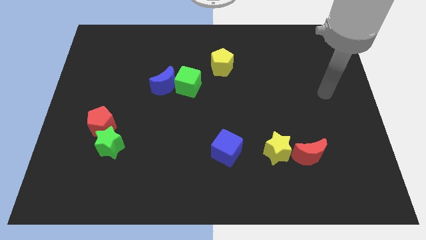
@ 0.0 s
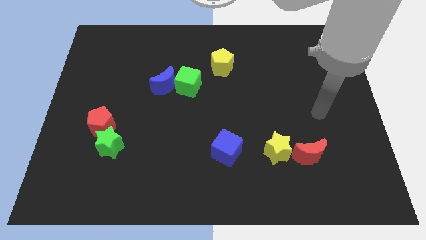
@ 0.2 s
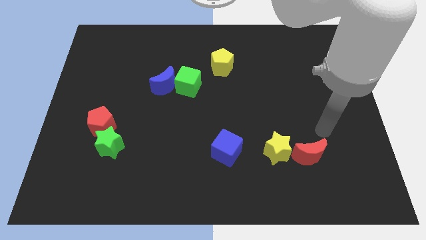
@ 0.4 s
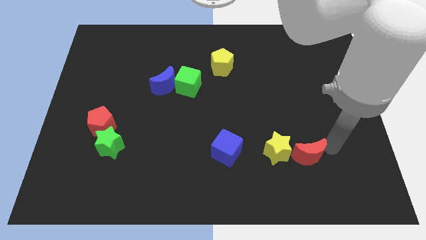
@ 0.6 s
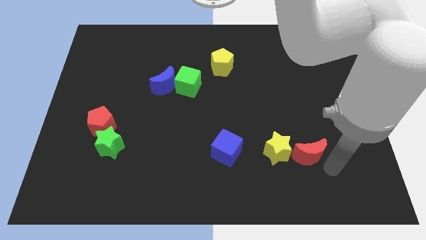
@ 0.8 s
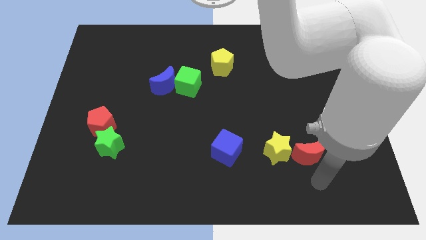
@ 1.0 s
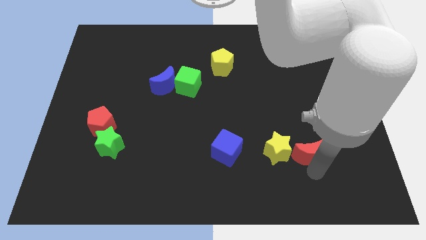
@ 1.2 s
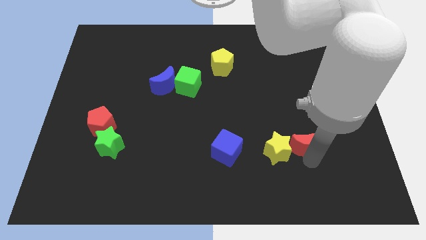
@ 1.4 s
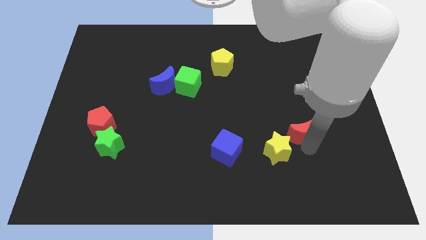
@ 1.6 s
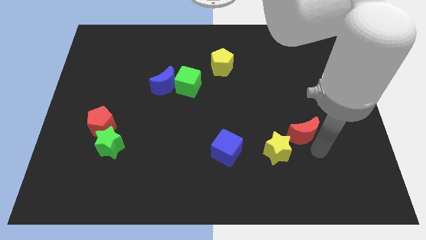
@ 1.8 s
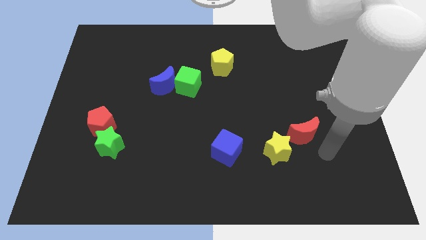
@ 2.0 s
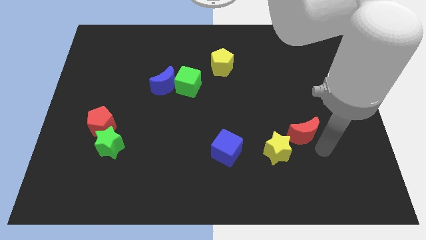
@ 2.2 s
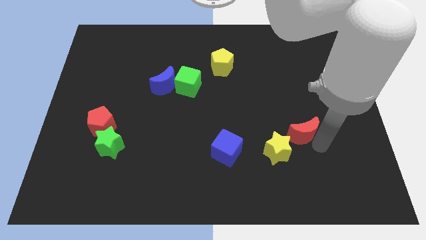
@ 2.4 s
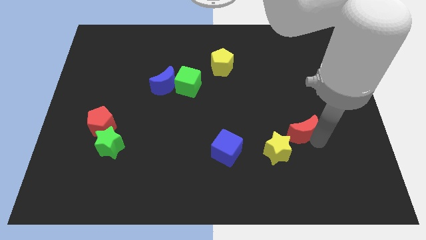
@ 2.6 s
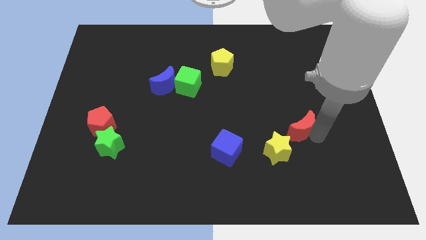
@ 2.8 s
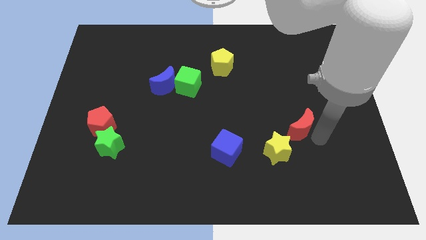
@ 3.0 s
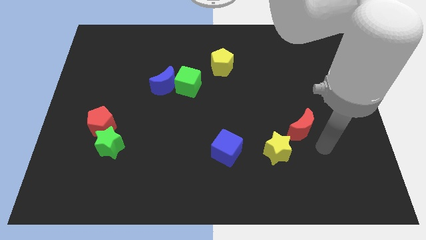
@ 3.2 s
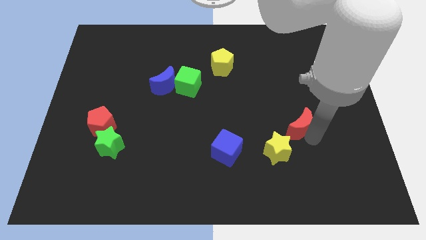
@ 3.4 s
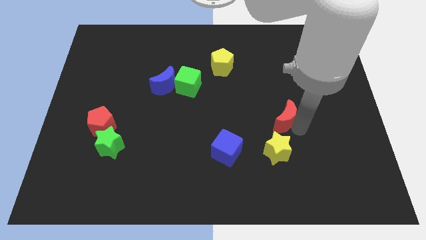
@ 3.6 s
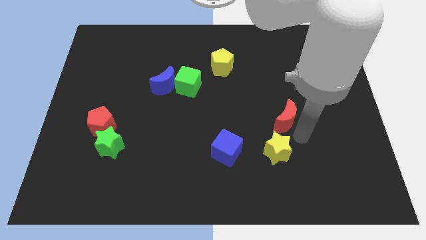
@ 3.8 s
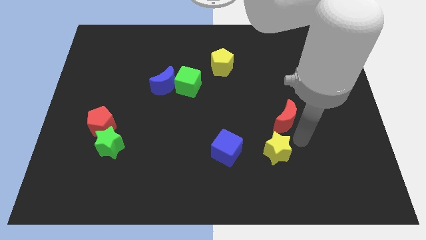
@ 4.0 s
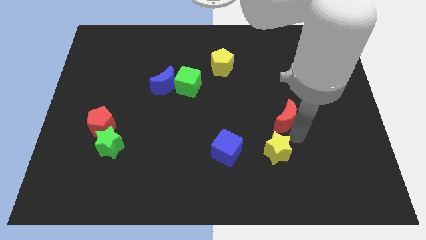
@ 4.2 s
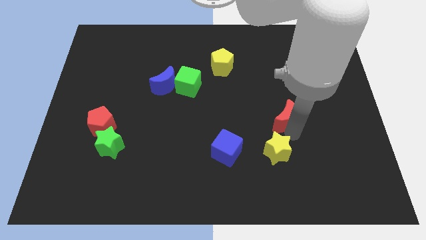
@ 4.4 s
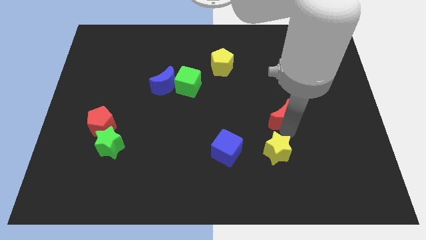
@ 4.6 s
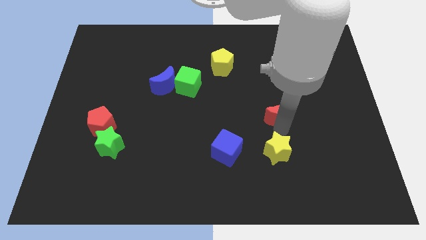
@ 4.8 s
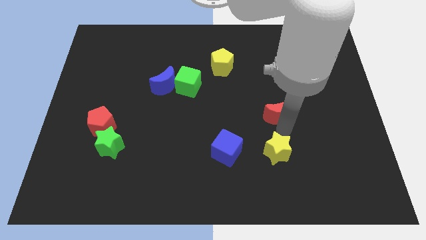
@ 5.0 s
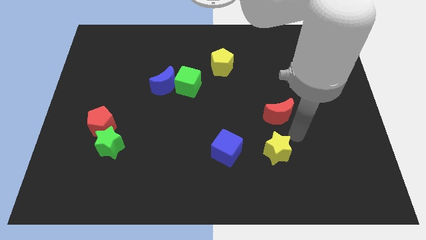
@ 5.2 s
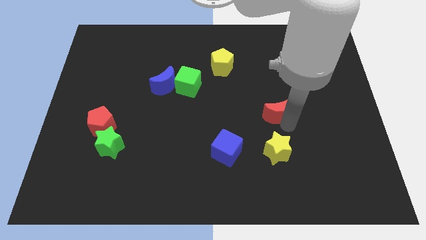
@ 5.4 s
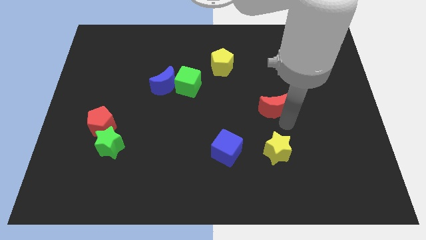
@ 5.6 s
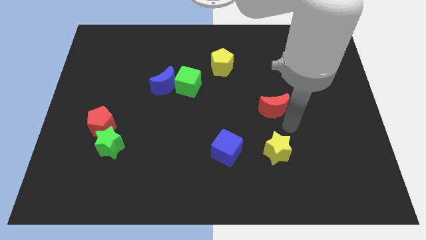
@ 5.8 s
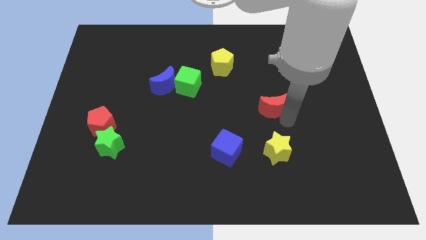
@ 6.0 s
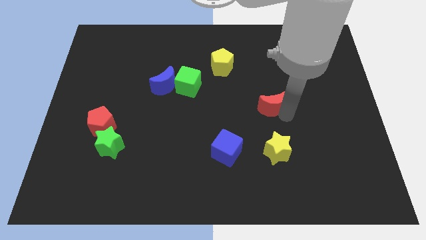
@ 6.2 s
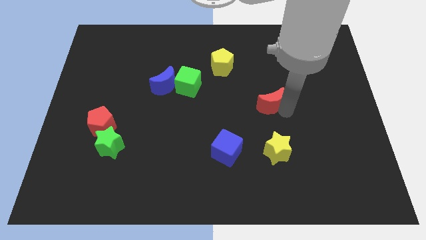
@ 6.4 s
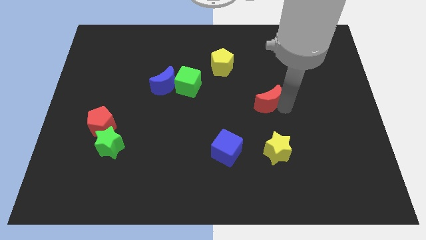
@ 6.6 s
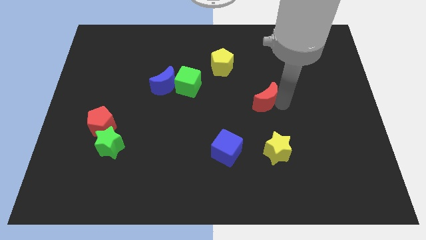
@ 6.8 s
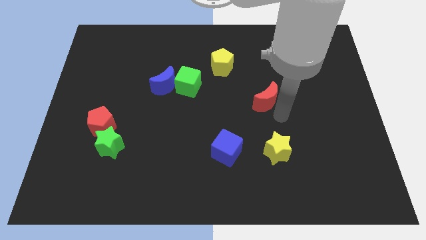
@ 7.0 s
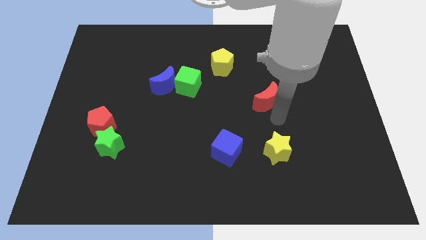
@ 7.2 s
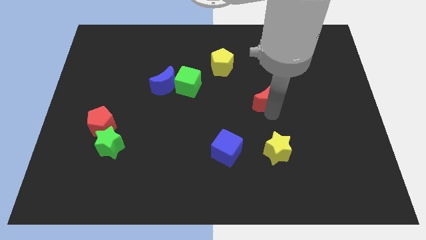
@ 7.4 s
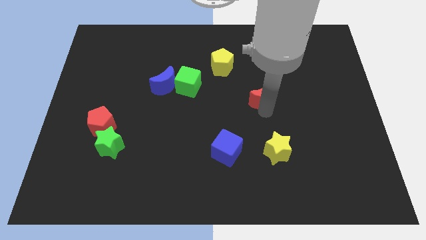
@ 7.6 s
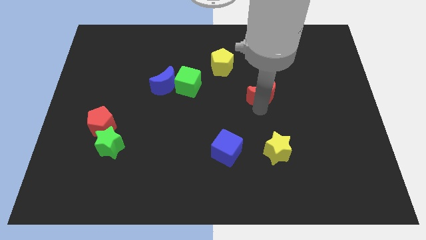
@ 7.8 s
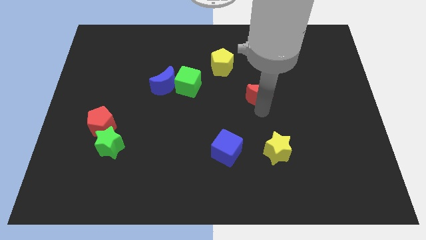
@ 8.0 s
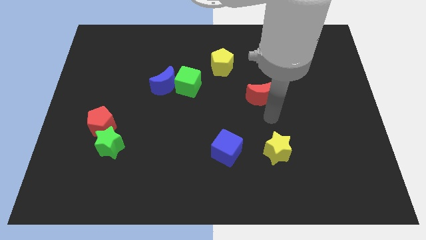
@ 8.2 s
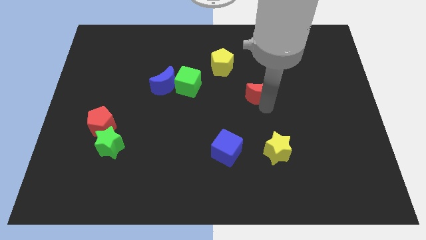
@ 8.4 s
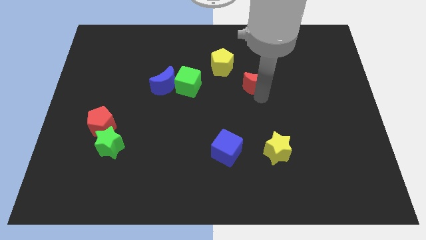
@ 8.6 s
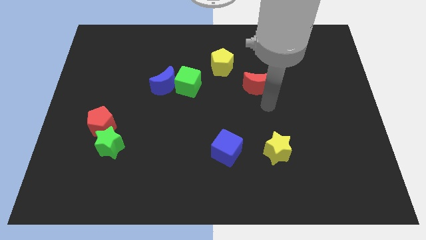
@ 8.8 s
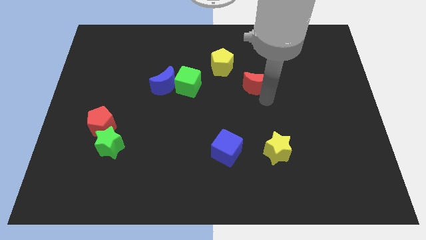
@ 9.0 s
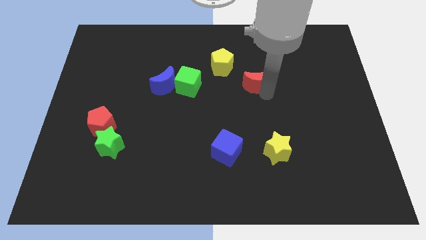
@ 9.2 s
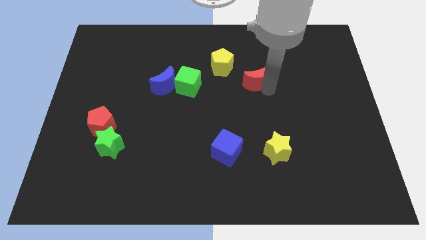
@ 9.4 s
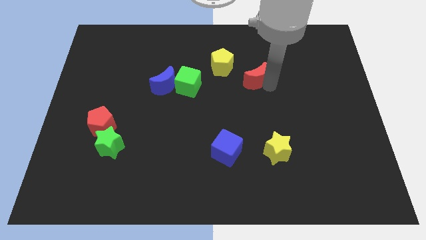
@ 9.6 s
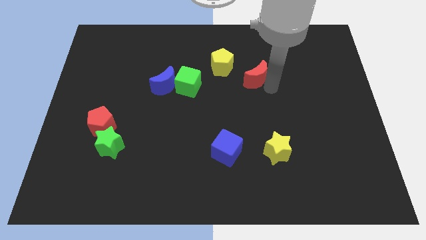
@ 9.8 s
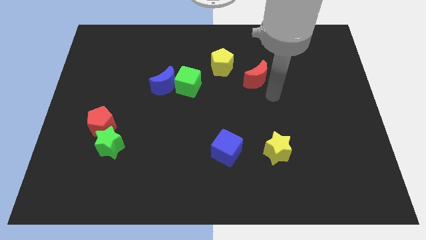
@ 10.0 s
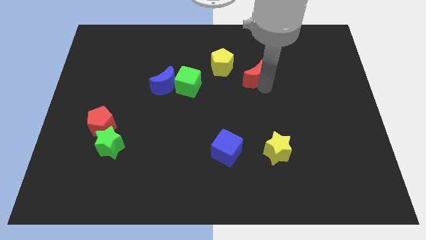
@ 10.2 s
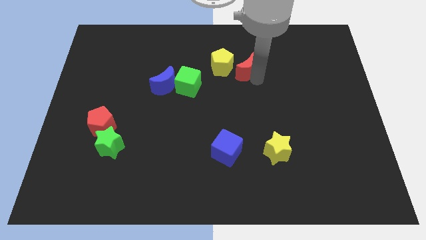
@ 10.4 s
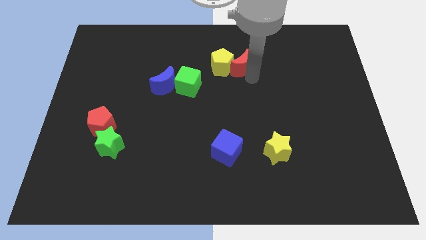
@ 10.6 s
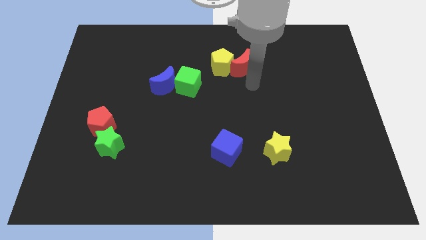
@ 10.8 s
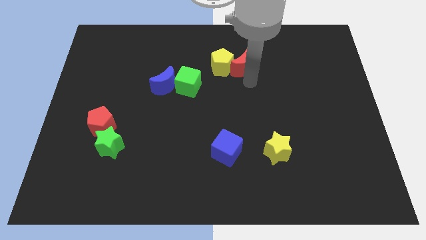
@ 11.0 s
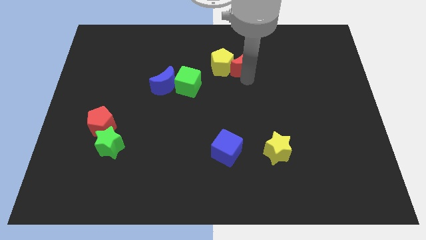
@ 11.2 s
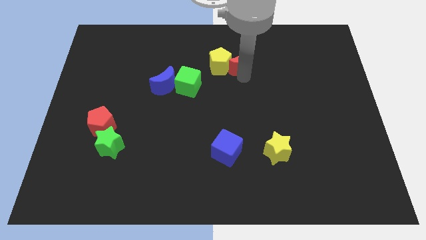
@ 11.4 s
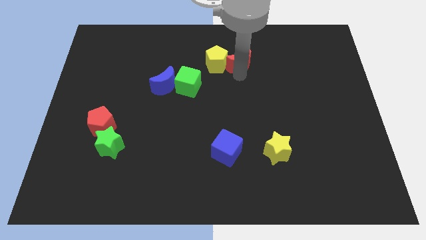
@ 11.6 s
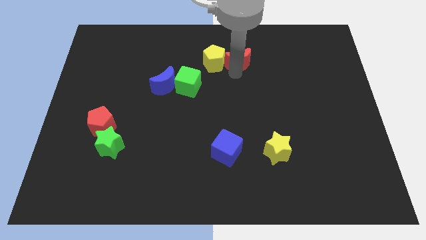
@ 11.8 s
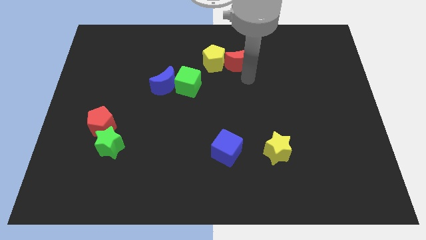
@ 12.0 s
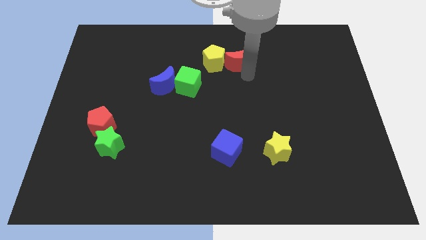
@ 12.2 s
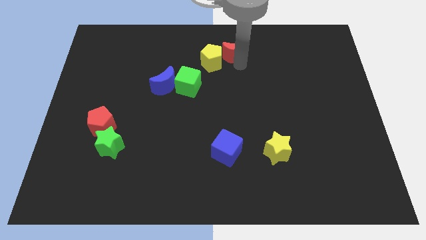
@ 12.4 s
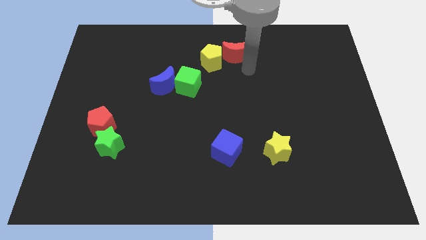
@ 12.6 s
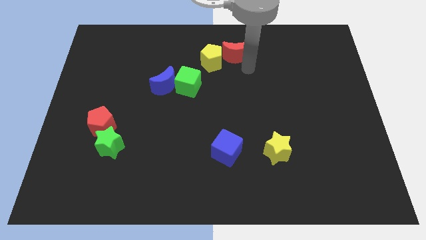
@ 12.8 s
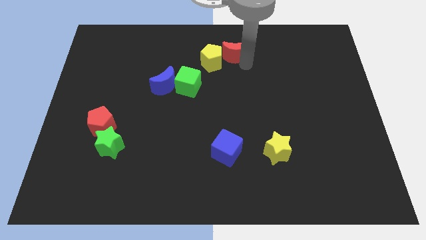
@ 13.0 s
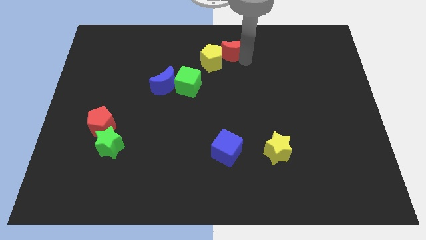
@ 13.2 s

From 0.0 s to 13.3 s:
push the red moon to the top
